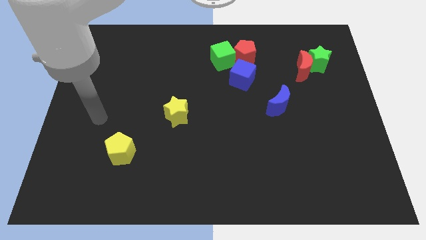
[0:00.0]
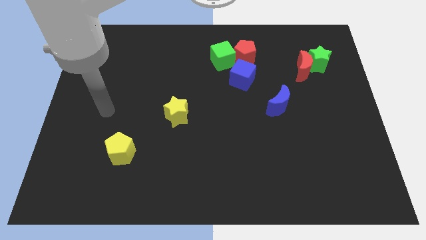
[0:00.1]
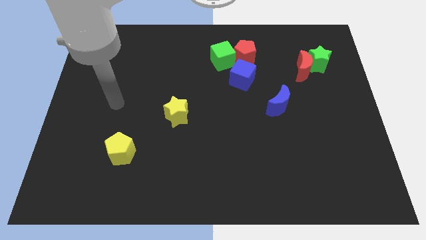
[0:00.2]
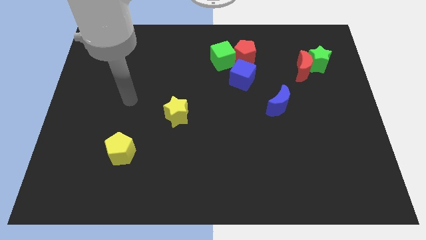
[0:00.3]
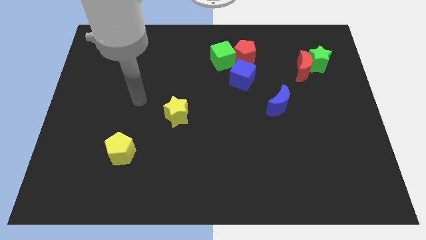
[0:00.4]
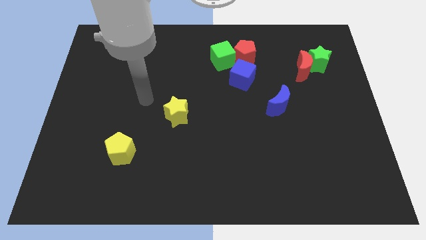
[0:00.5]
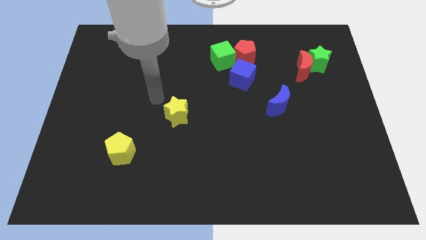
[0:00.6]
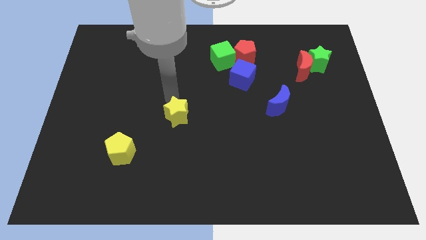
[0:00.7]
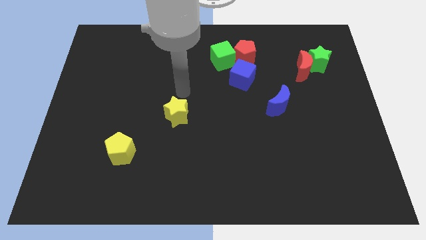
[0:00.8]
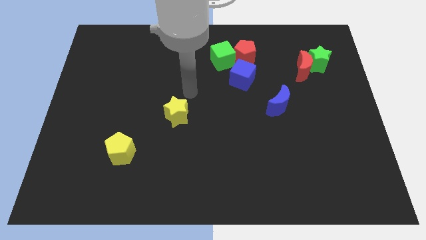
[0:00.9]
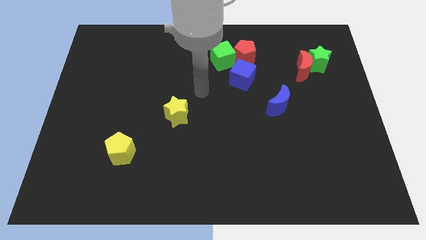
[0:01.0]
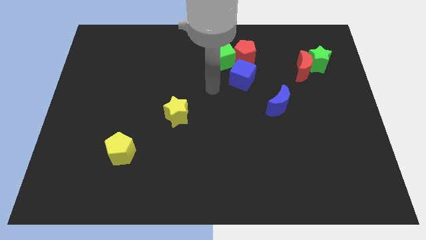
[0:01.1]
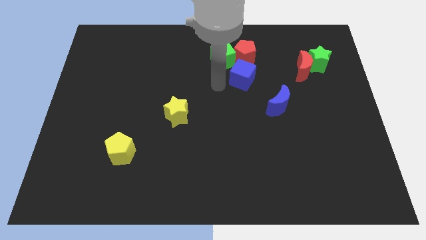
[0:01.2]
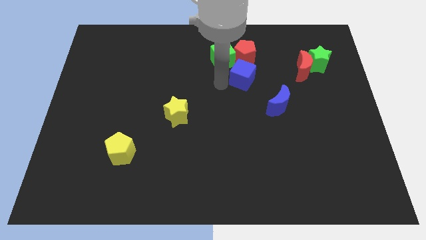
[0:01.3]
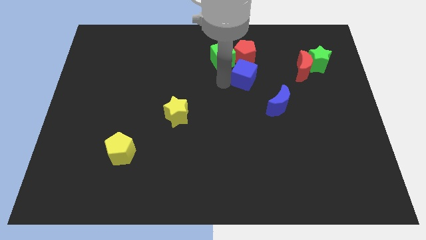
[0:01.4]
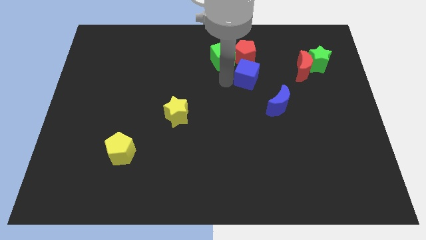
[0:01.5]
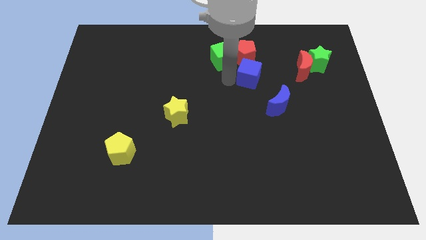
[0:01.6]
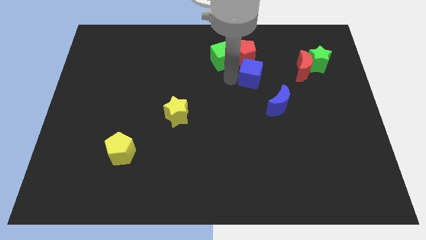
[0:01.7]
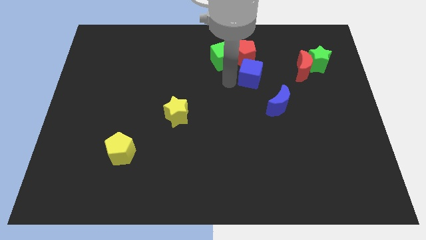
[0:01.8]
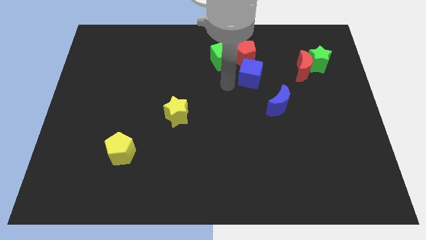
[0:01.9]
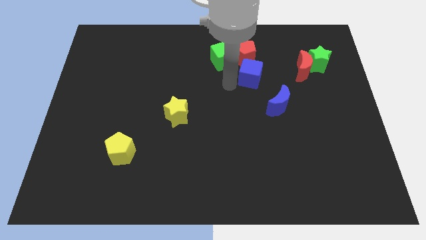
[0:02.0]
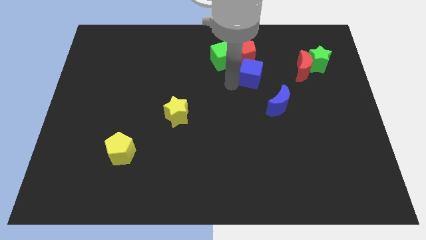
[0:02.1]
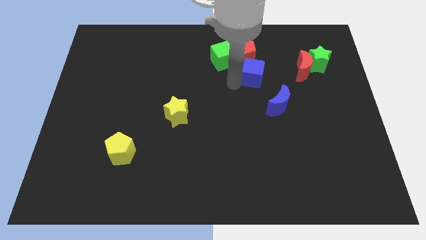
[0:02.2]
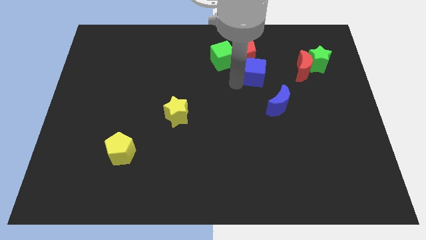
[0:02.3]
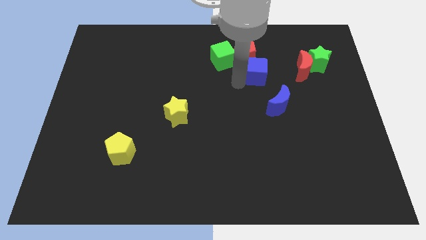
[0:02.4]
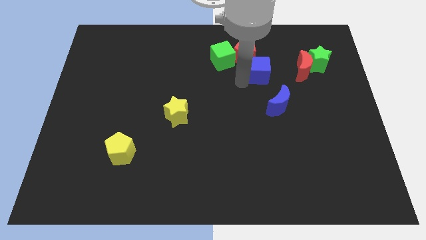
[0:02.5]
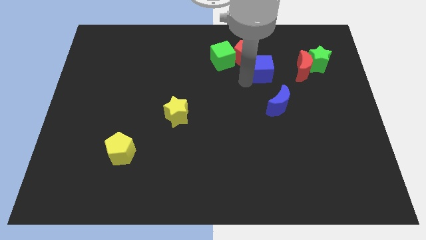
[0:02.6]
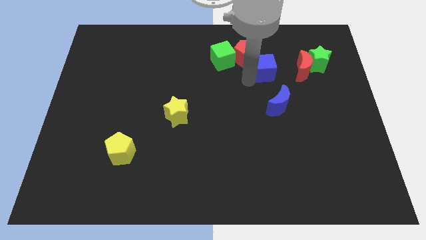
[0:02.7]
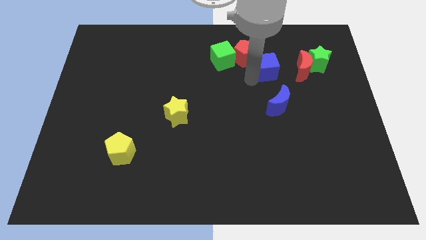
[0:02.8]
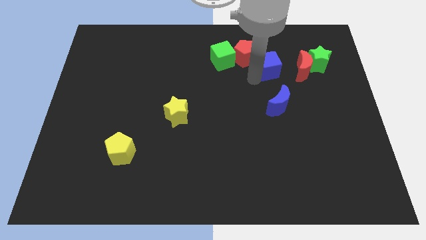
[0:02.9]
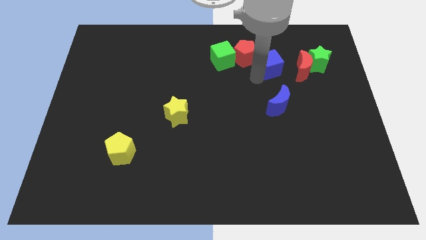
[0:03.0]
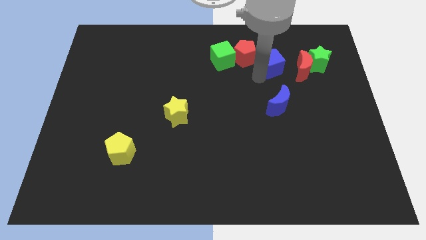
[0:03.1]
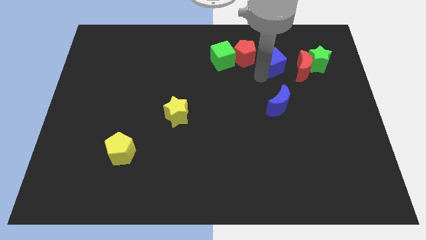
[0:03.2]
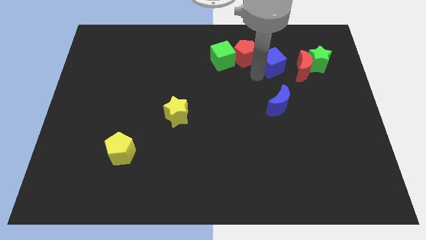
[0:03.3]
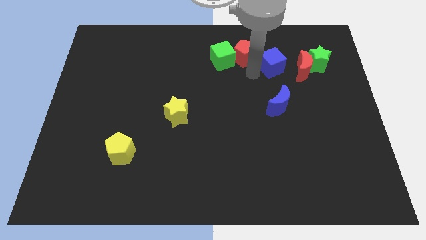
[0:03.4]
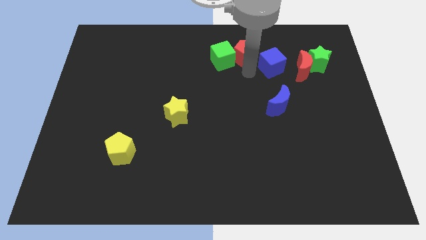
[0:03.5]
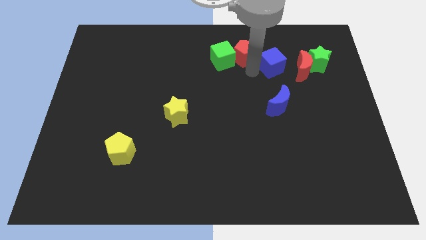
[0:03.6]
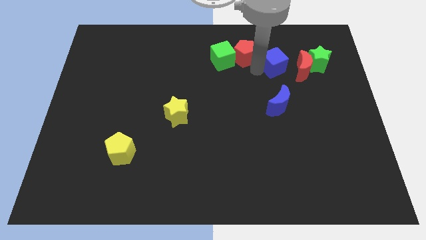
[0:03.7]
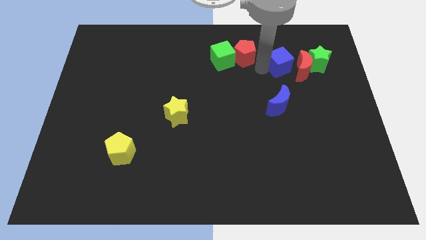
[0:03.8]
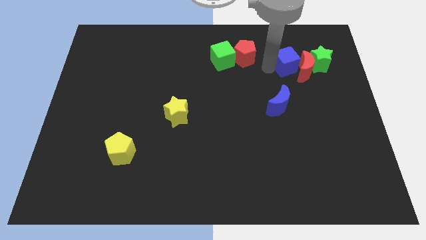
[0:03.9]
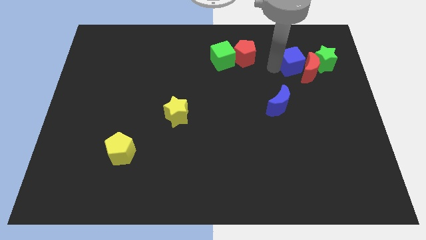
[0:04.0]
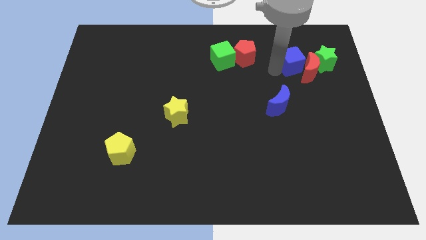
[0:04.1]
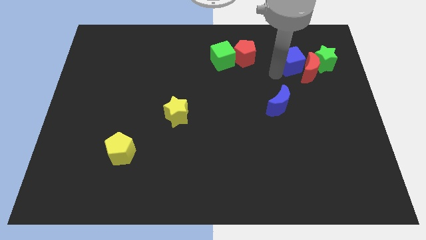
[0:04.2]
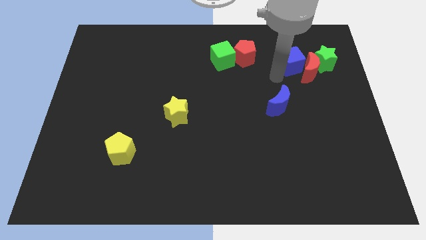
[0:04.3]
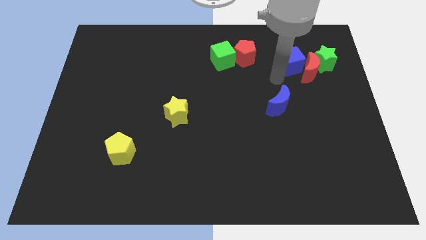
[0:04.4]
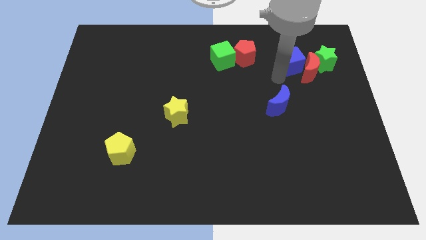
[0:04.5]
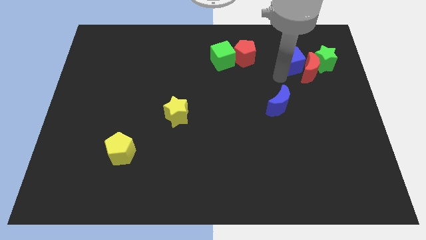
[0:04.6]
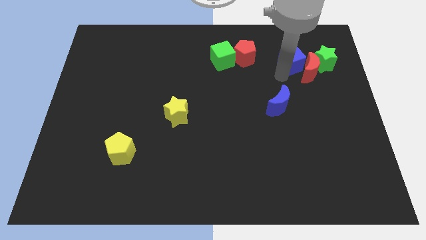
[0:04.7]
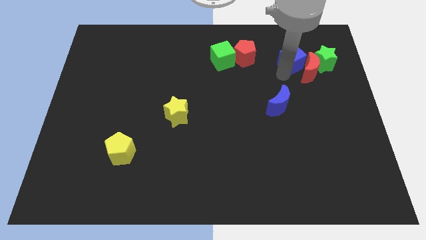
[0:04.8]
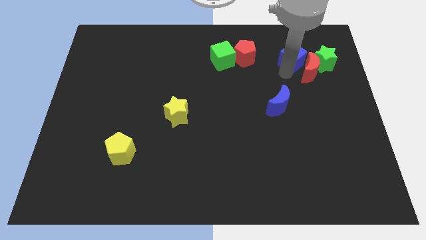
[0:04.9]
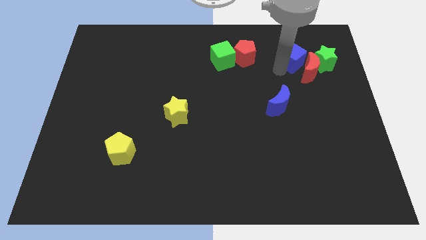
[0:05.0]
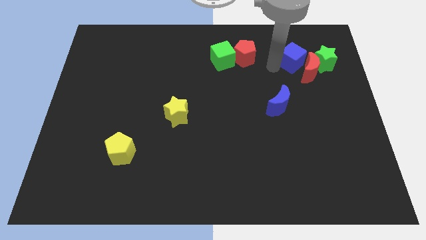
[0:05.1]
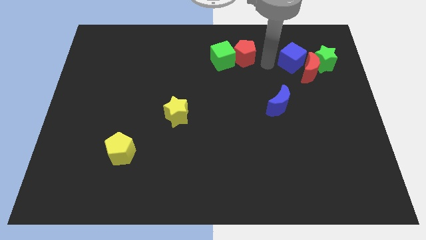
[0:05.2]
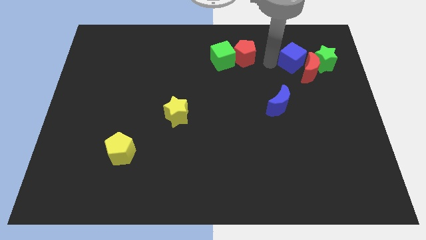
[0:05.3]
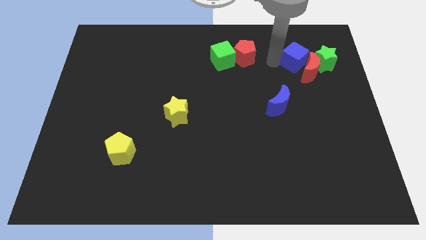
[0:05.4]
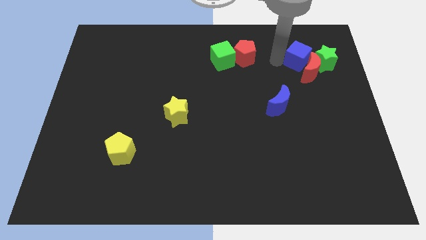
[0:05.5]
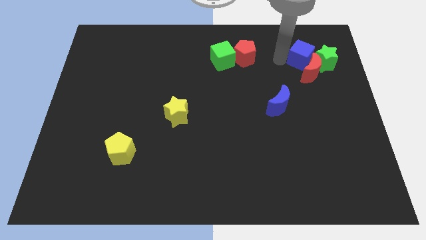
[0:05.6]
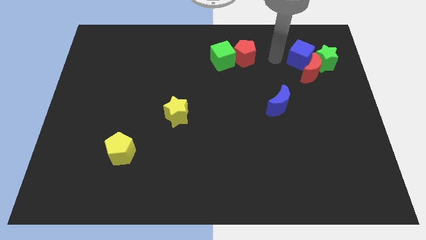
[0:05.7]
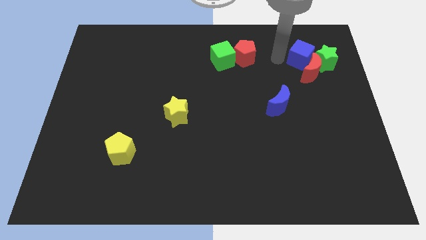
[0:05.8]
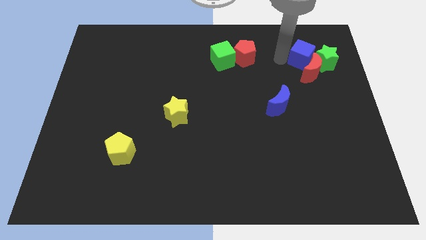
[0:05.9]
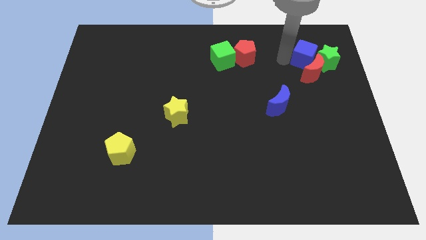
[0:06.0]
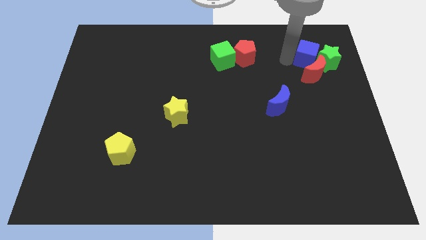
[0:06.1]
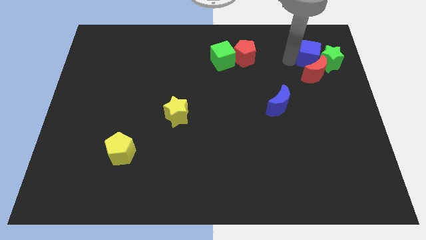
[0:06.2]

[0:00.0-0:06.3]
push the blue cube to the top right side of the red moon
